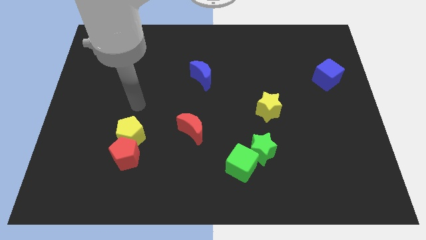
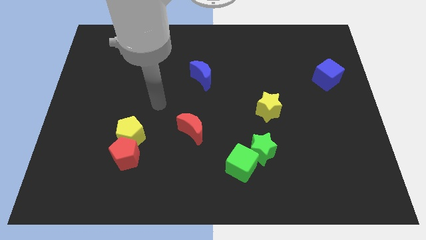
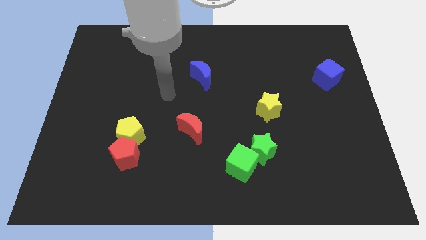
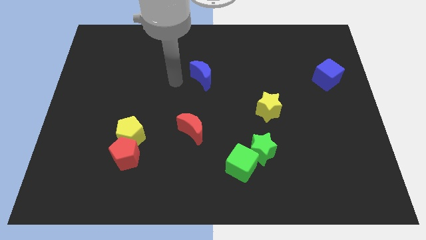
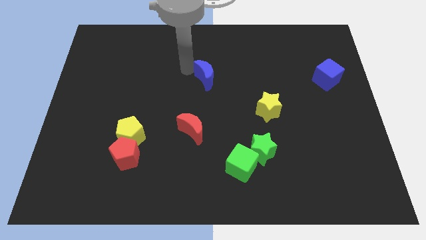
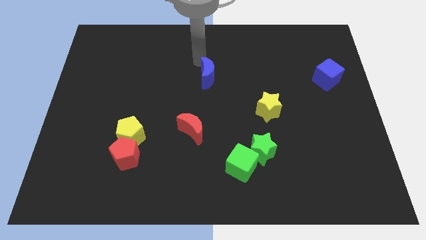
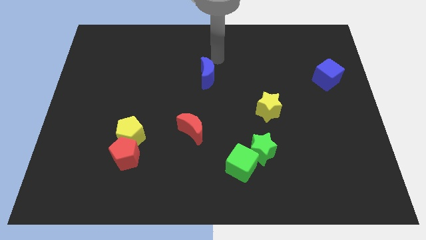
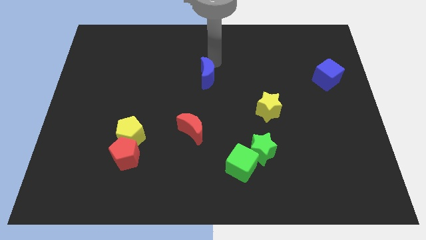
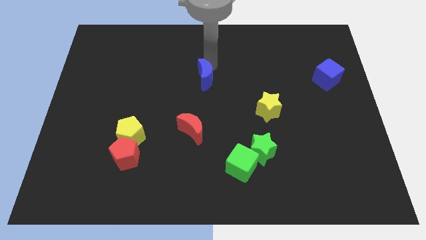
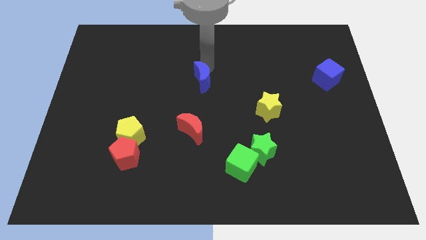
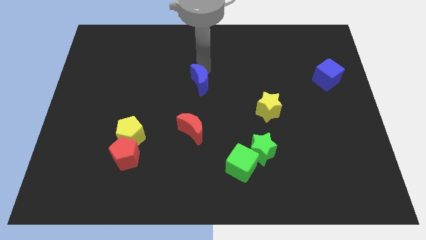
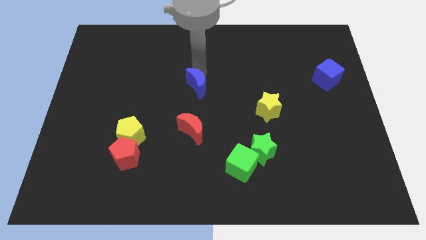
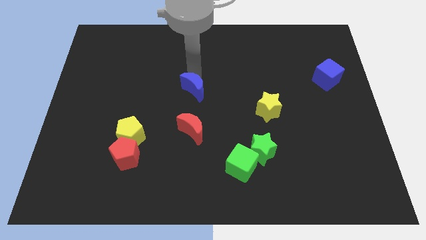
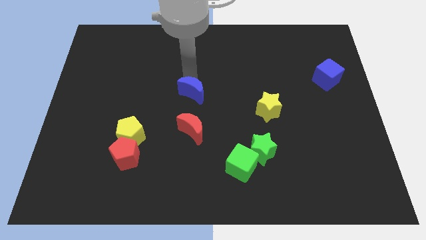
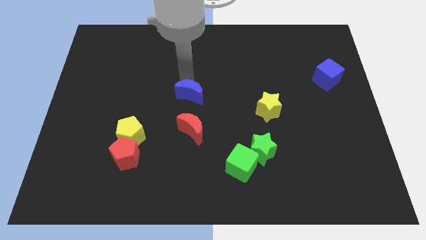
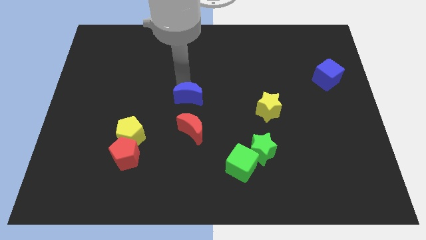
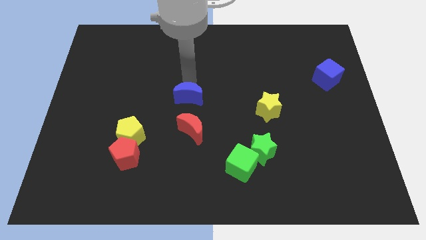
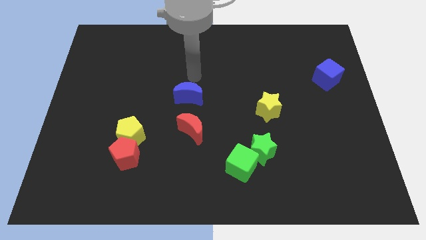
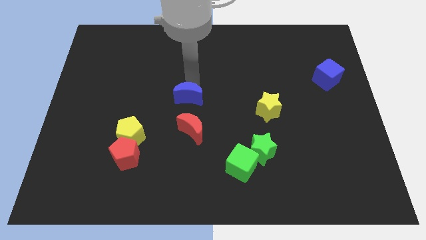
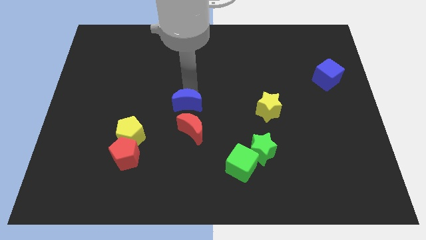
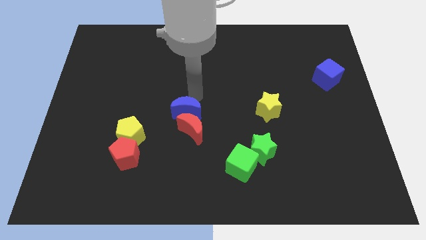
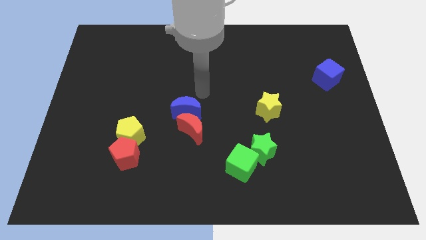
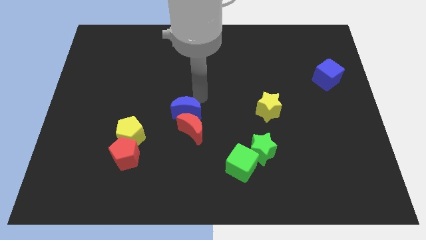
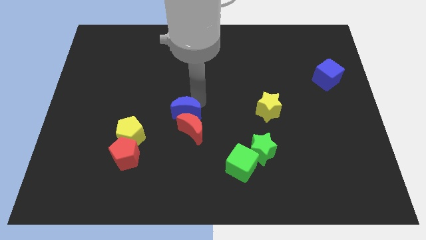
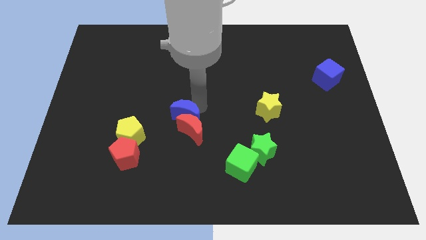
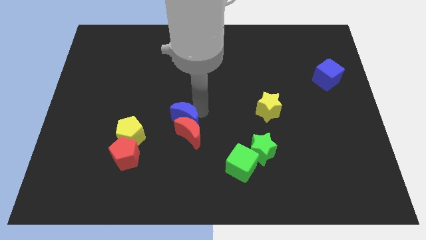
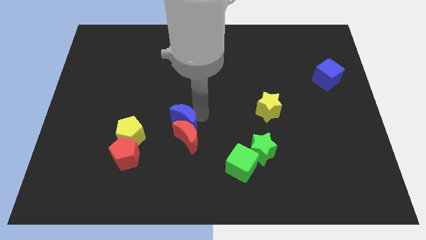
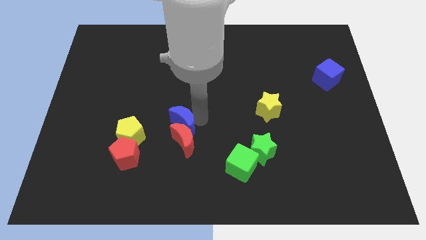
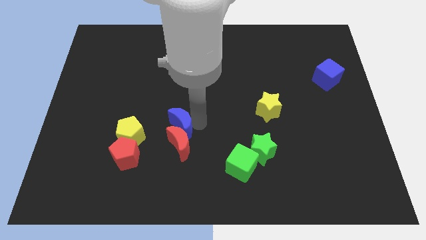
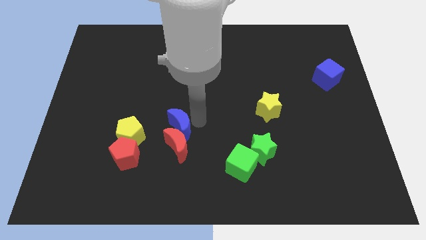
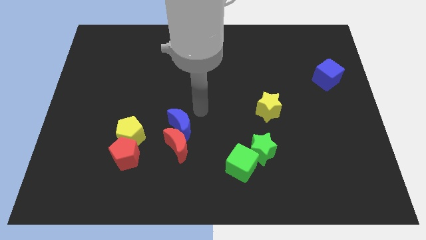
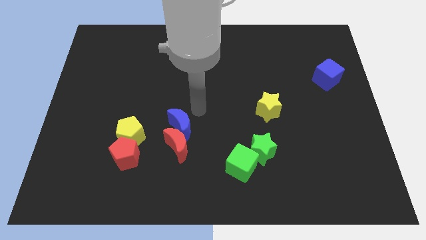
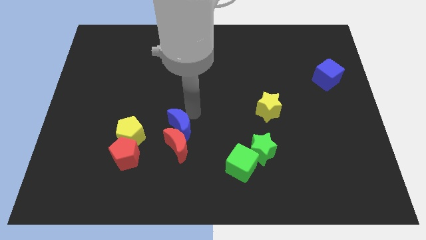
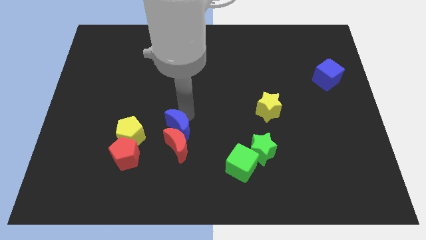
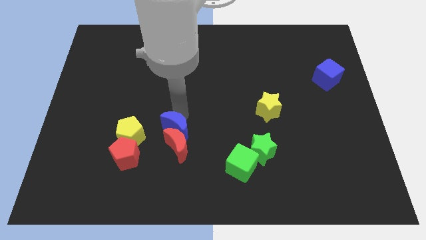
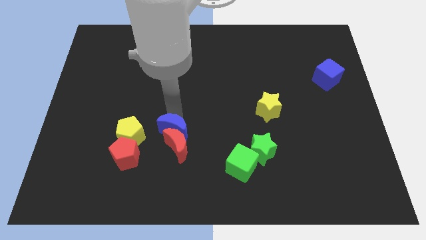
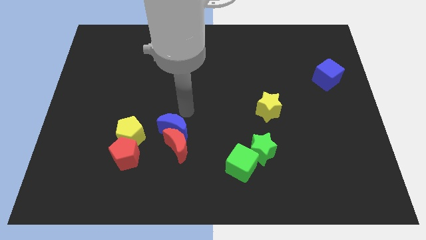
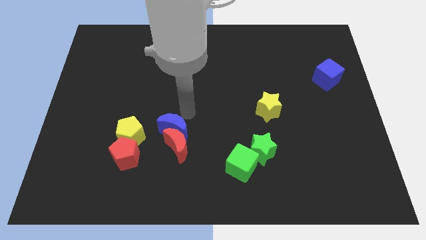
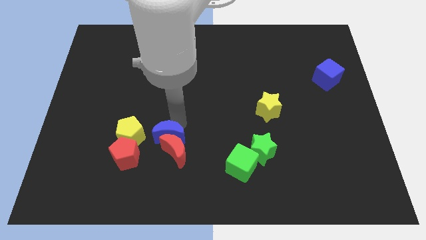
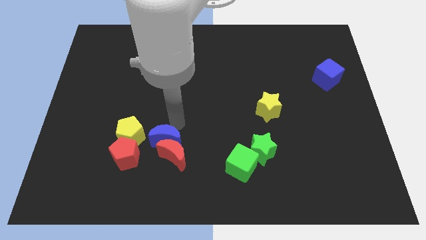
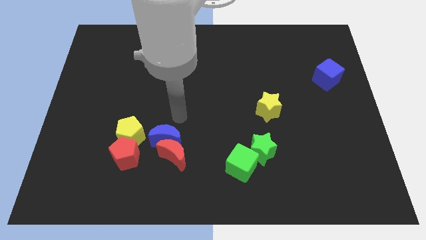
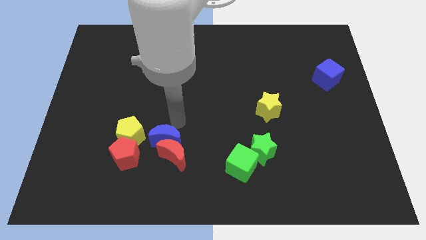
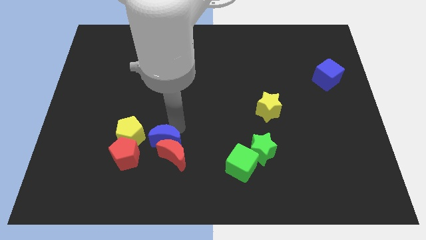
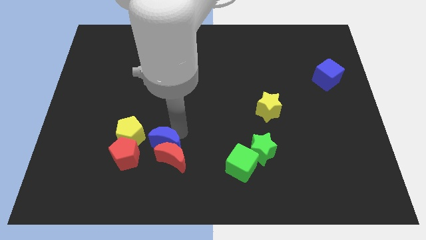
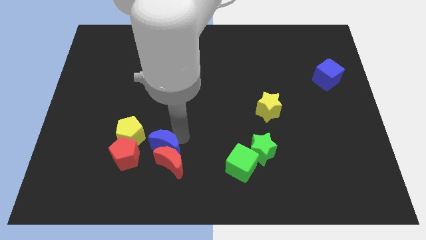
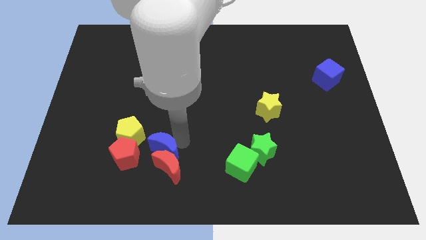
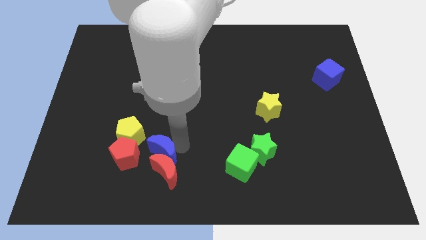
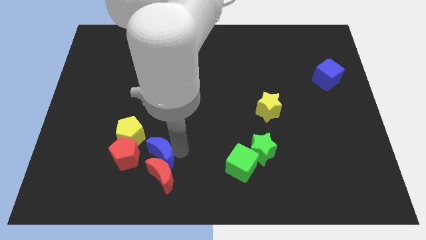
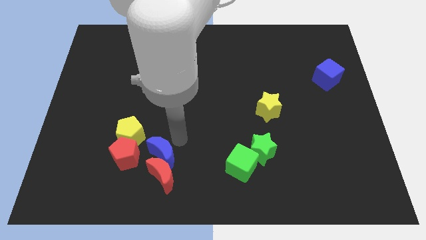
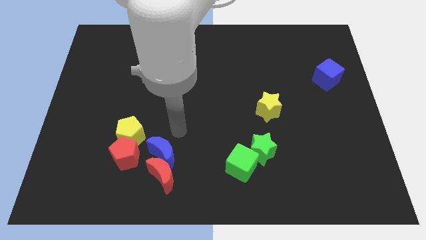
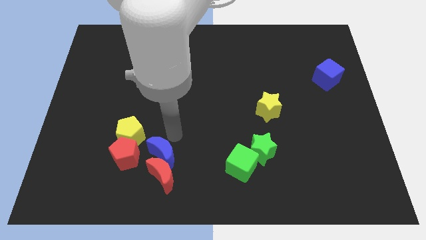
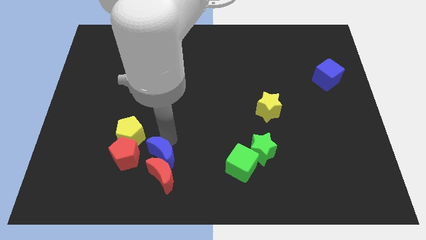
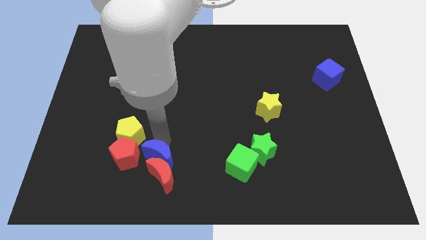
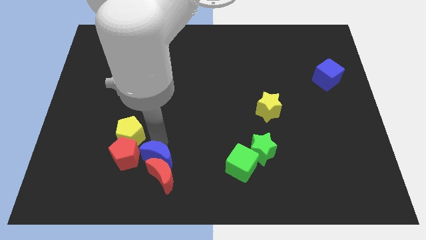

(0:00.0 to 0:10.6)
push the blue moon to the bottom right of the red pentagon

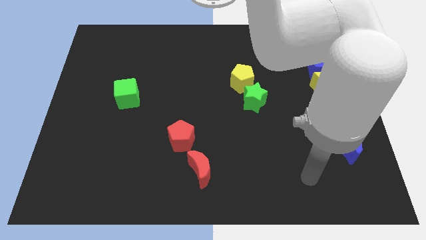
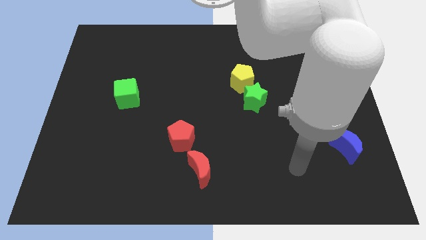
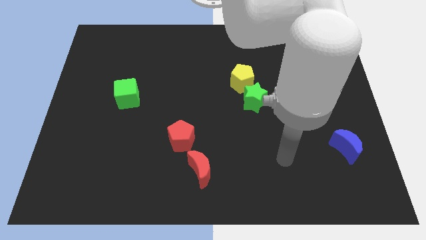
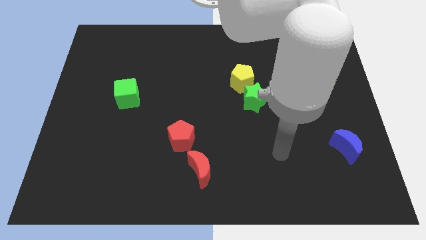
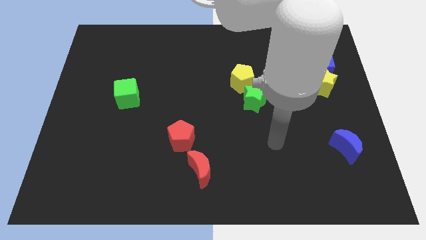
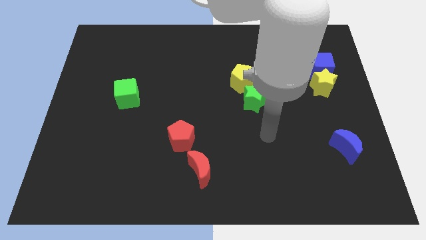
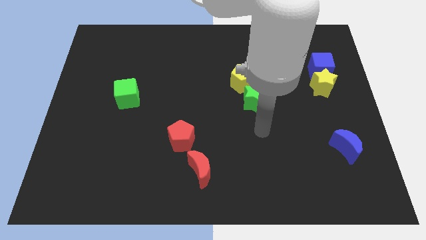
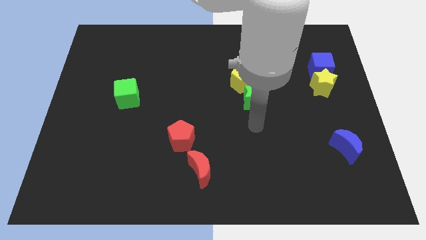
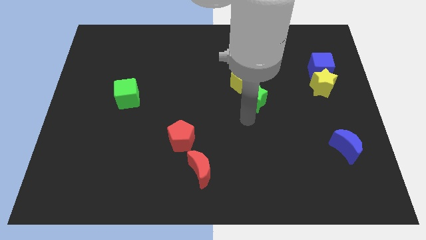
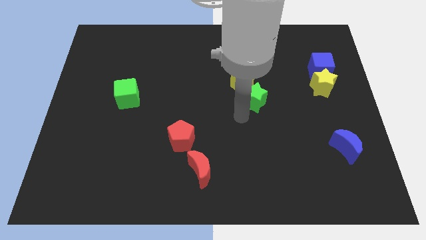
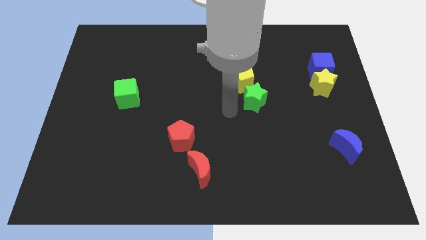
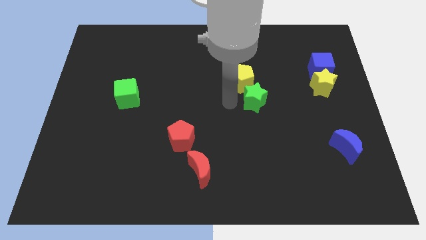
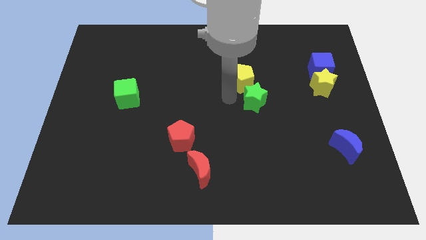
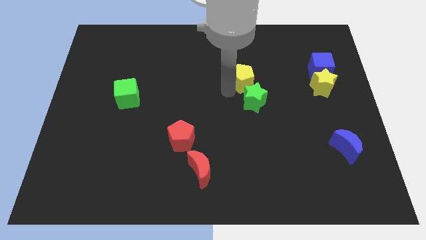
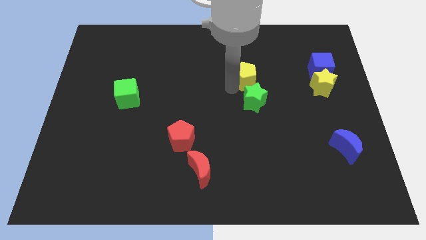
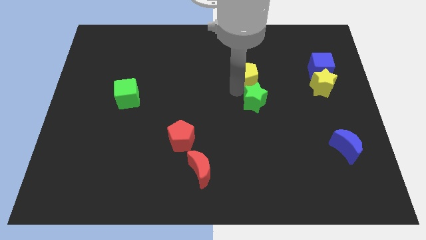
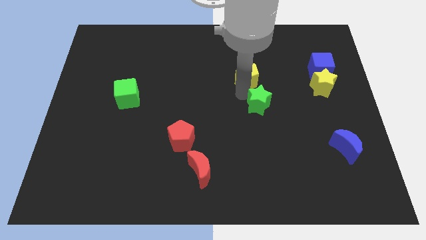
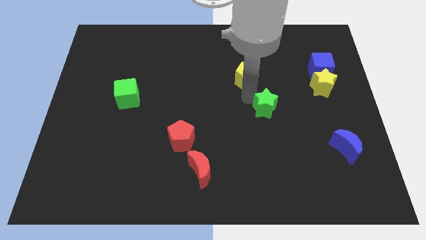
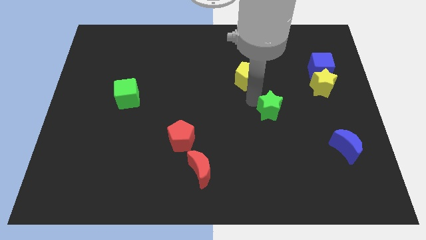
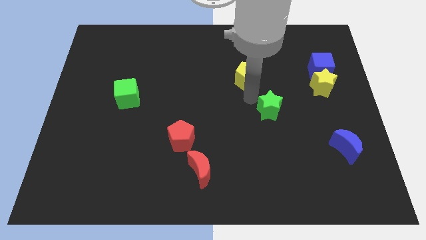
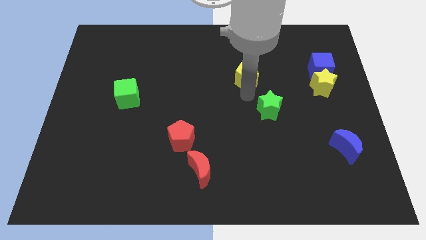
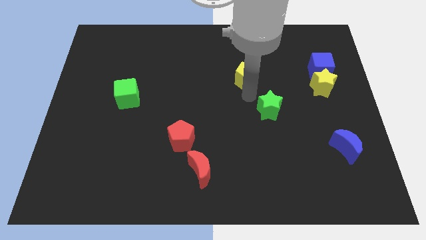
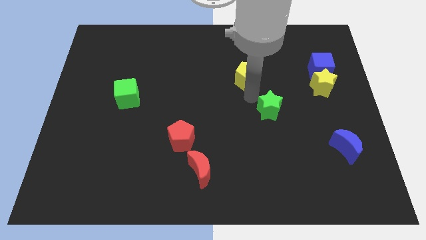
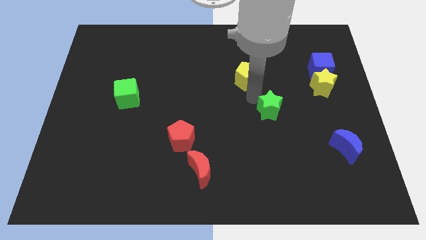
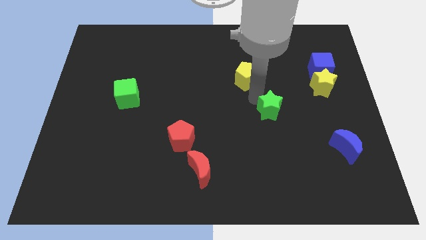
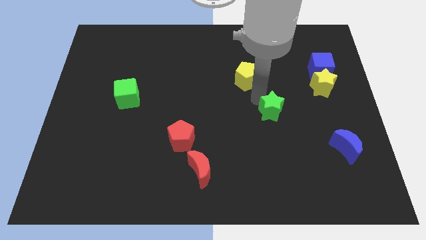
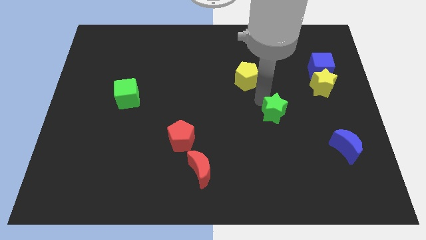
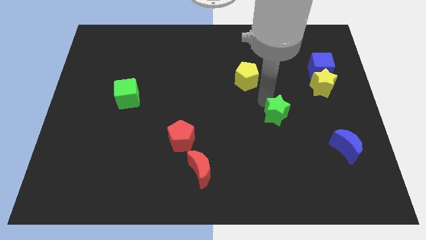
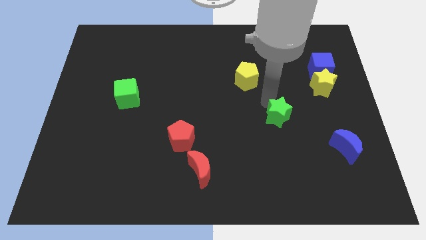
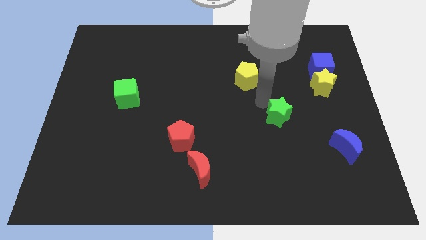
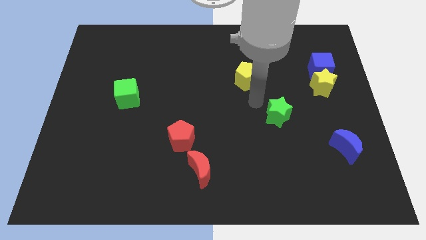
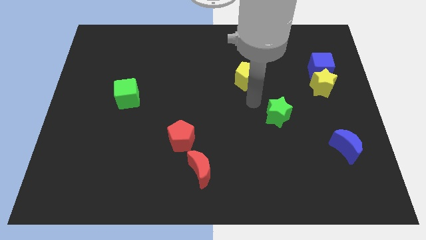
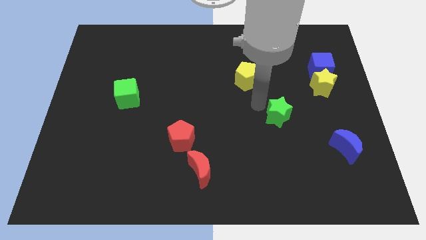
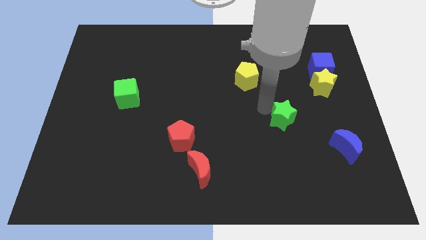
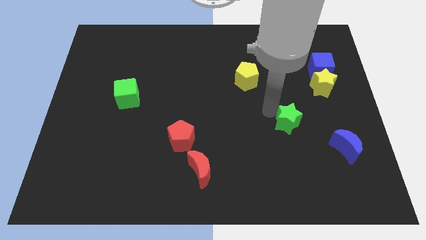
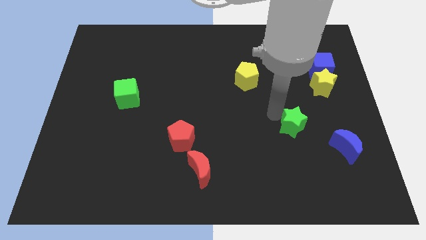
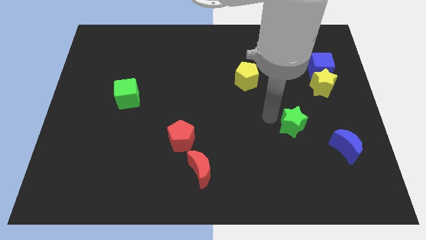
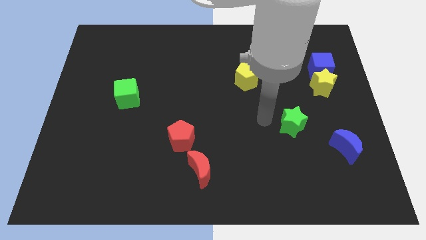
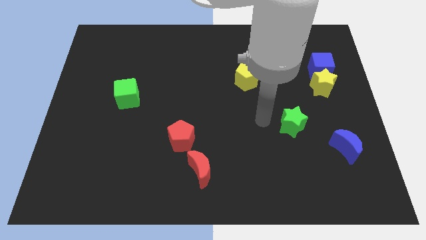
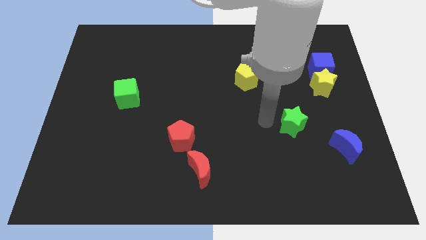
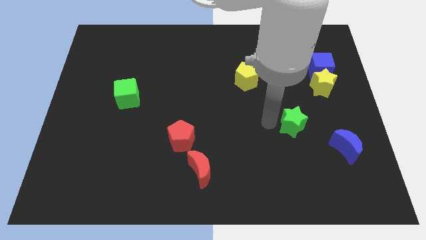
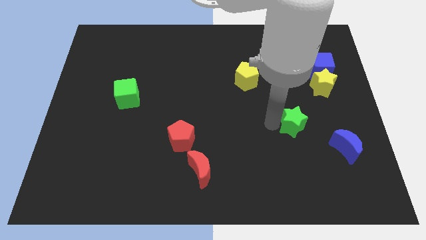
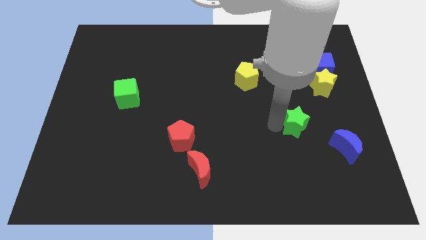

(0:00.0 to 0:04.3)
slide the green star to the top left of the blue moon
